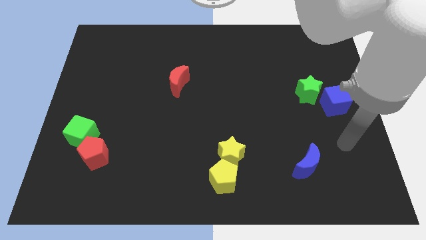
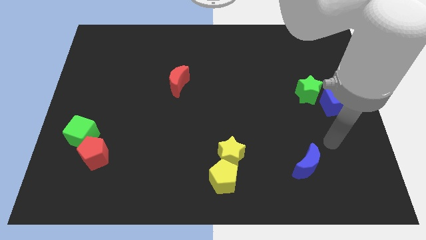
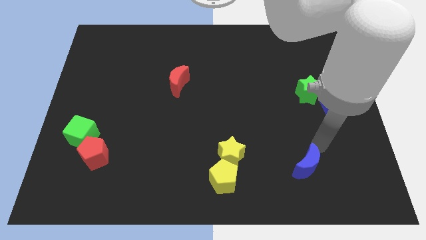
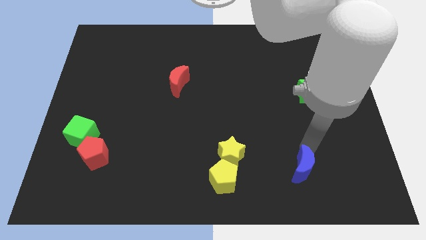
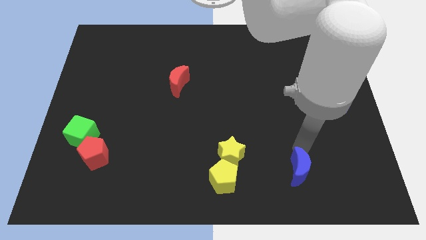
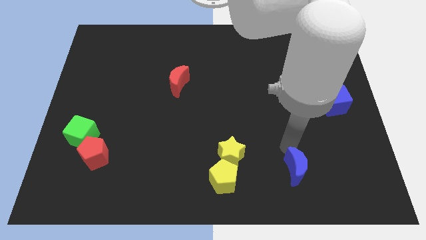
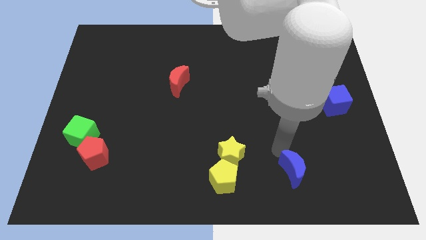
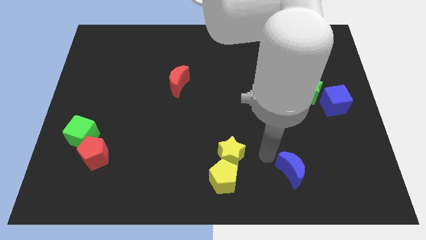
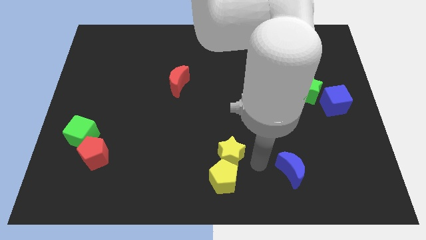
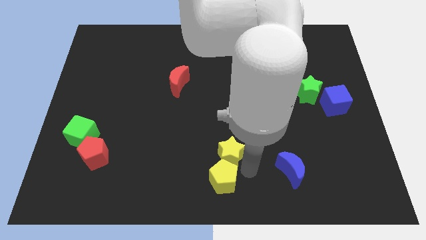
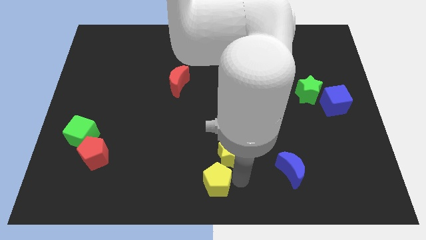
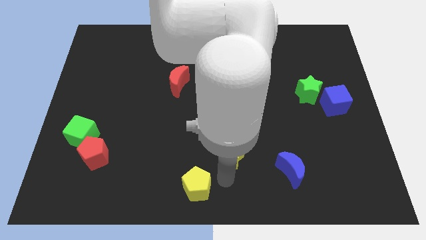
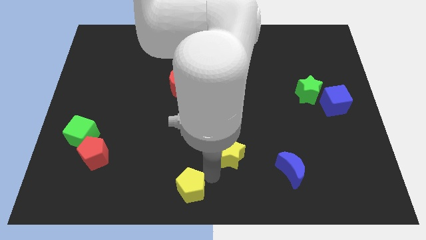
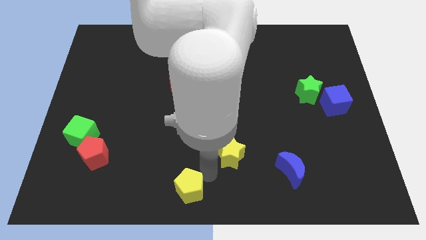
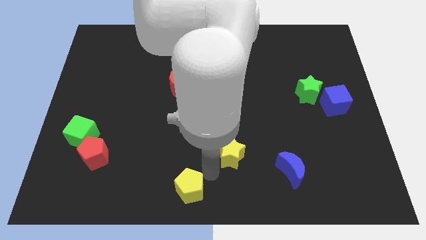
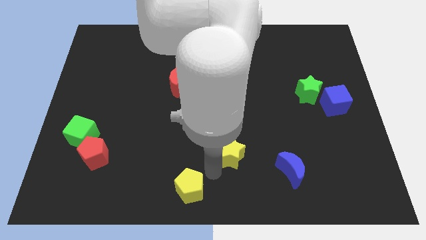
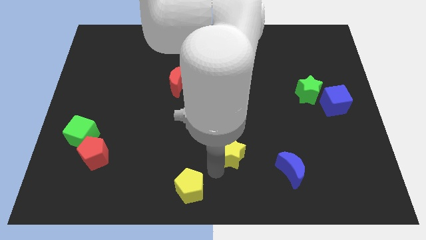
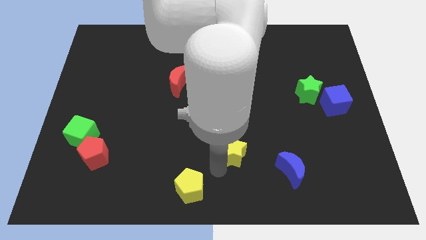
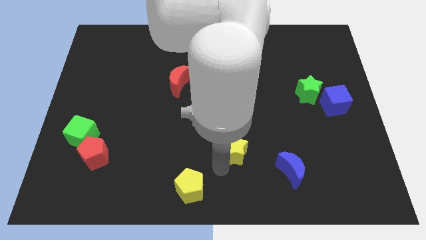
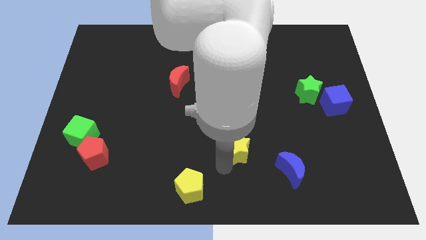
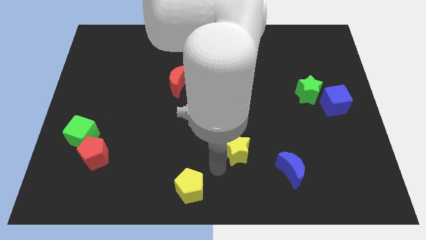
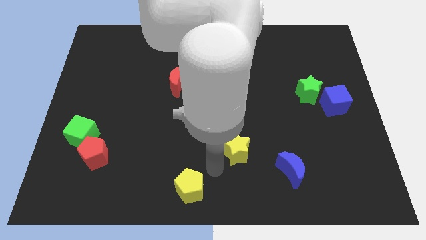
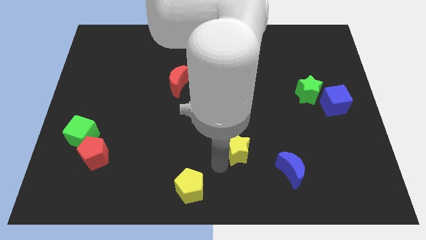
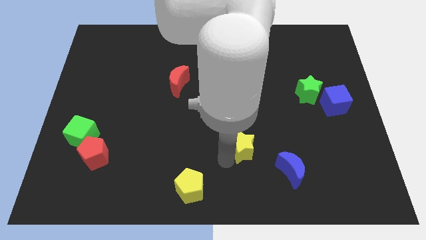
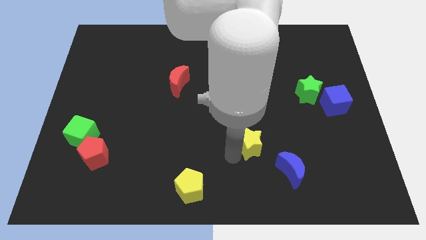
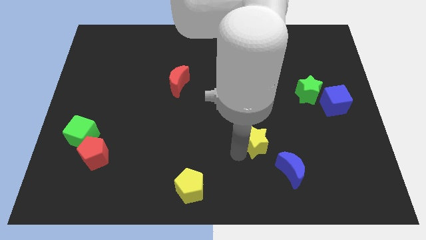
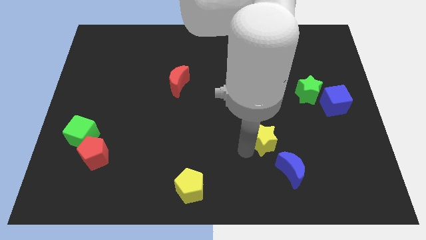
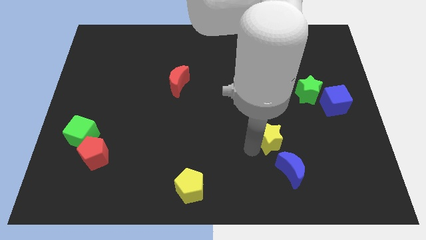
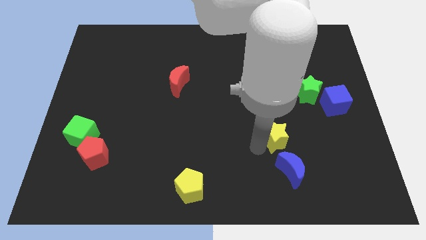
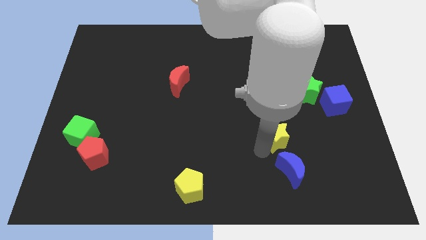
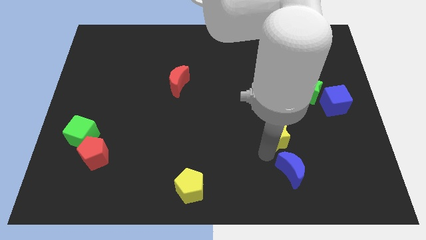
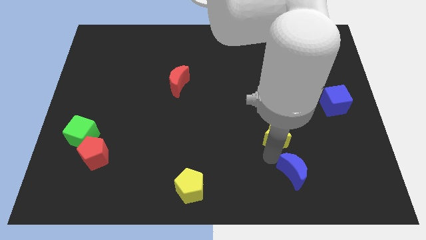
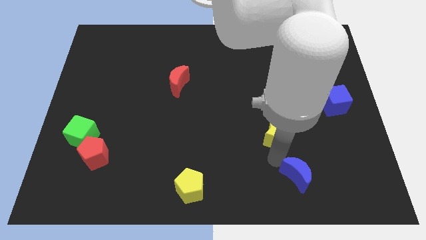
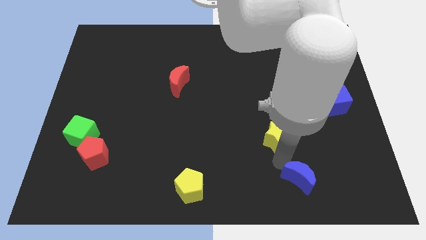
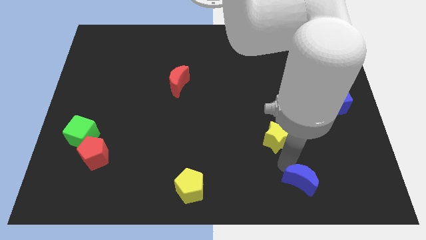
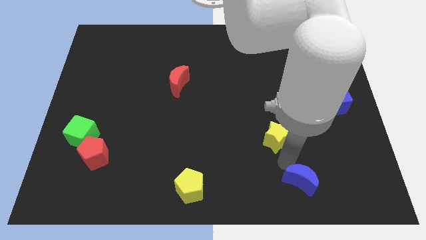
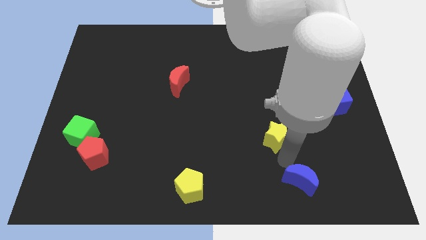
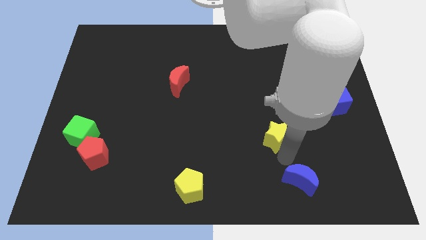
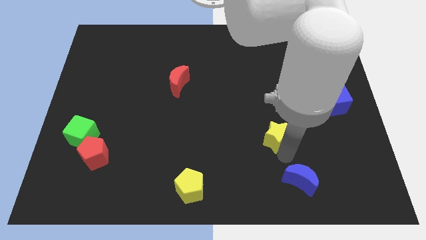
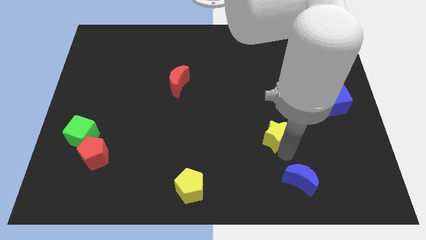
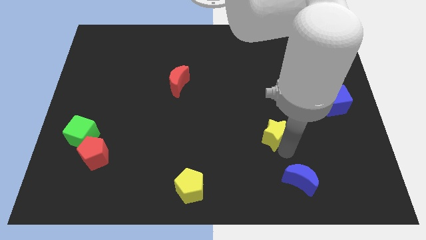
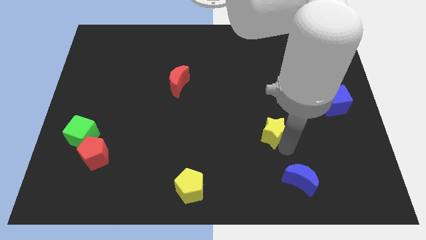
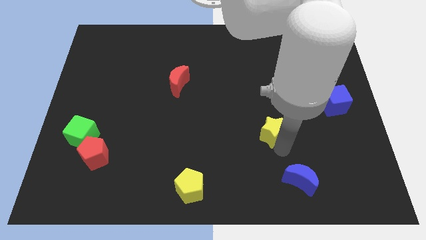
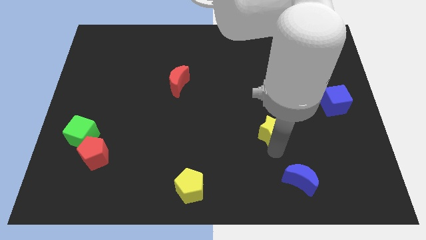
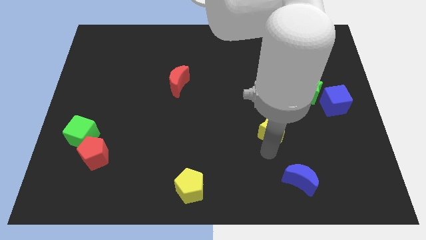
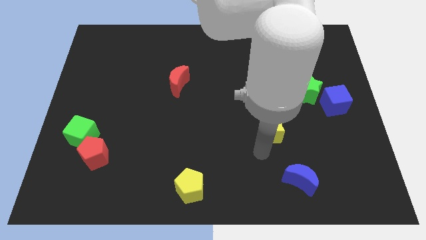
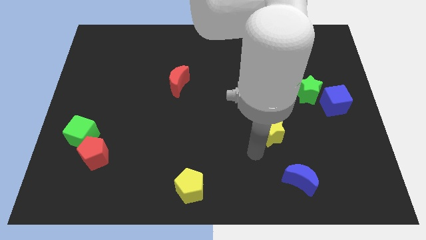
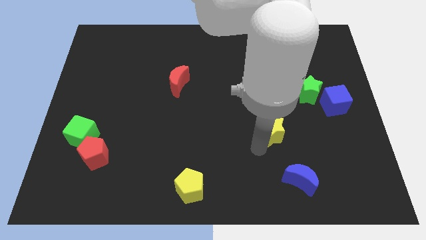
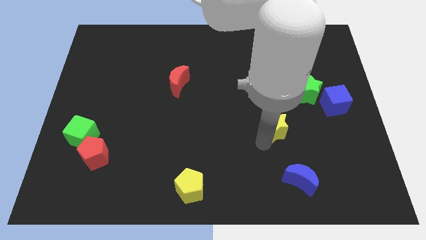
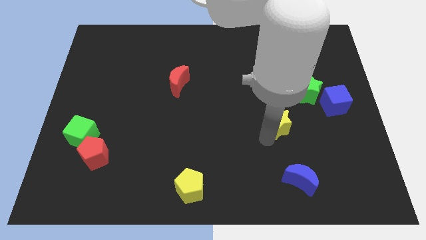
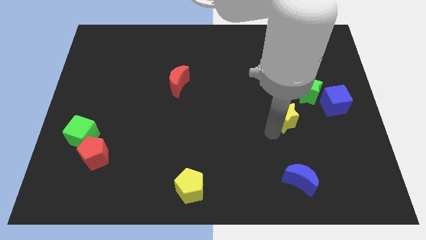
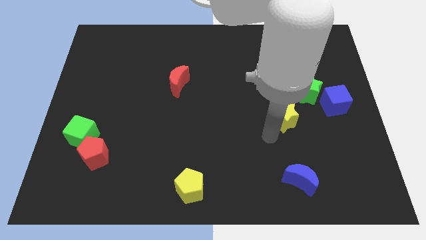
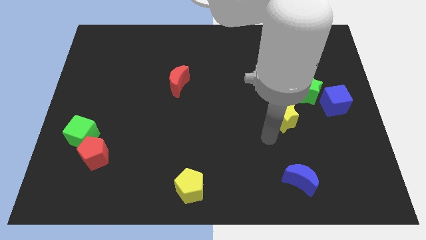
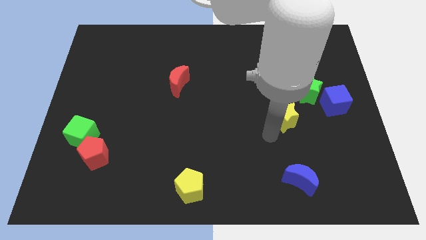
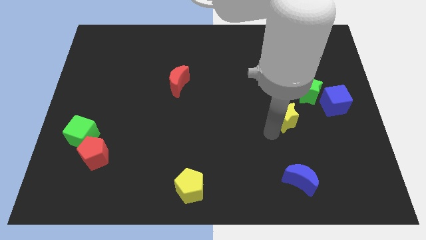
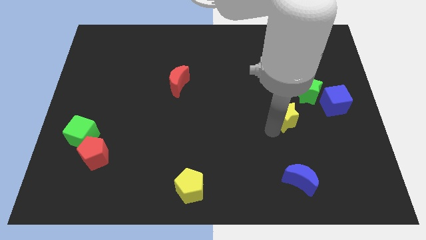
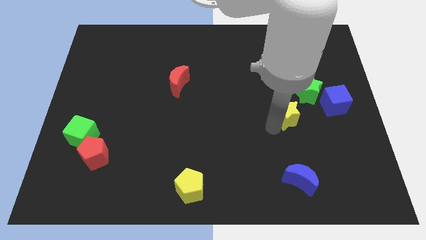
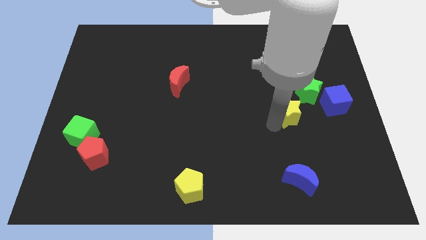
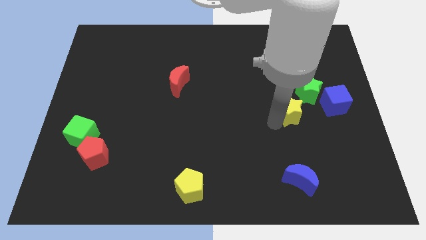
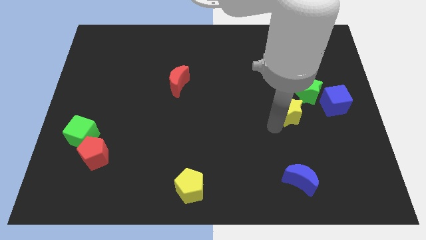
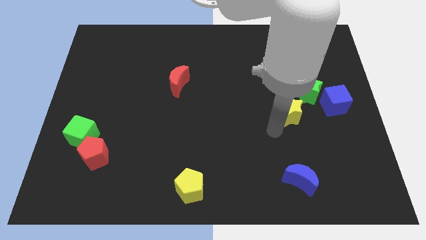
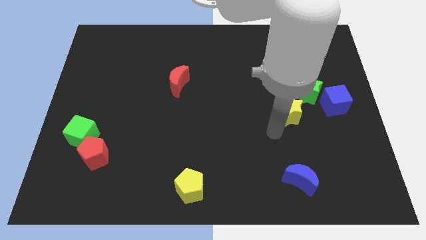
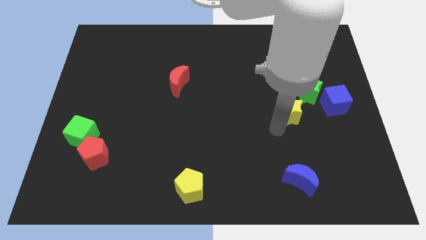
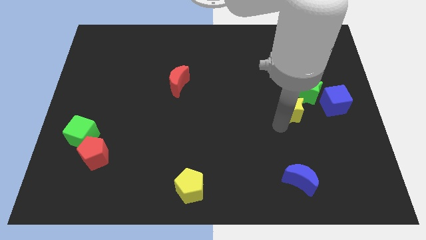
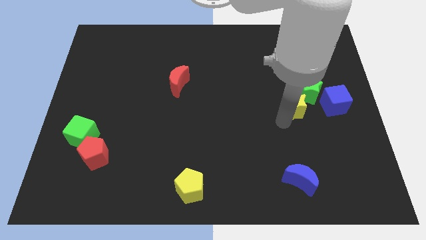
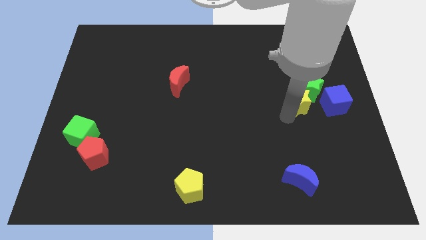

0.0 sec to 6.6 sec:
move the yellow star close to the green star
